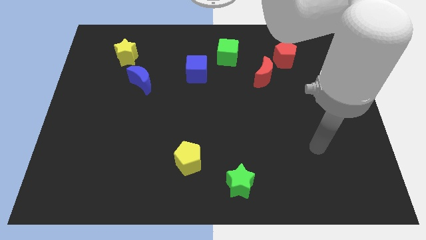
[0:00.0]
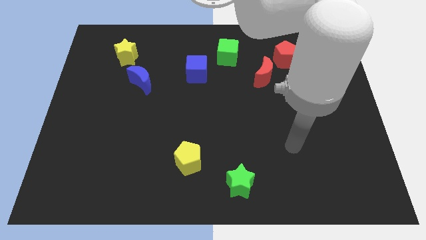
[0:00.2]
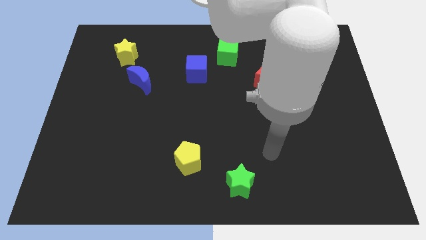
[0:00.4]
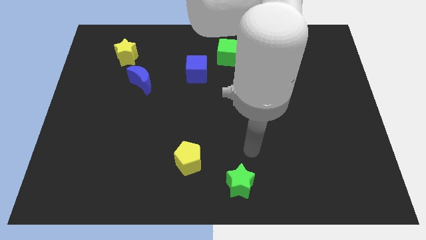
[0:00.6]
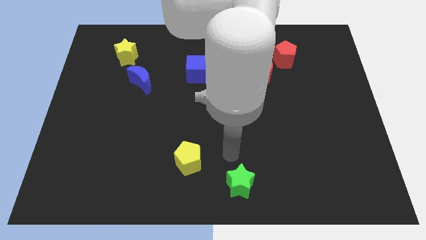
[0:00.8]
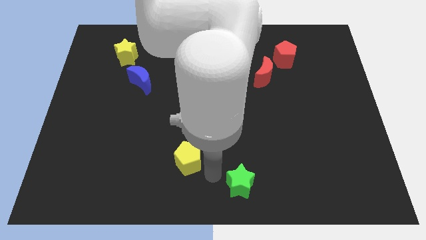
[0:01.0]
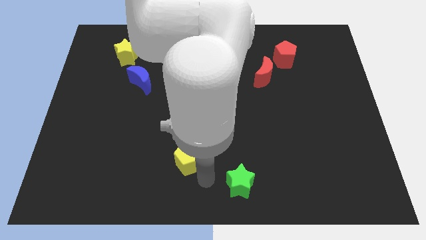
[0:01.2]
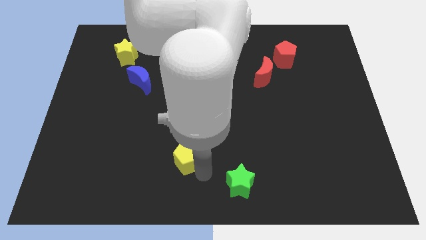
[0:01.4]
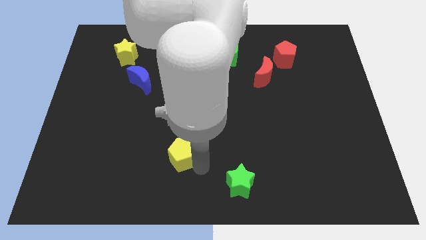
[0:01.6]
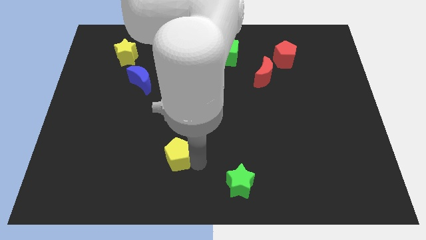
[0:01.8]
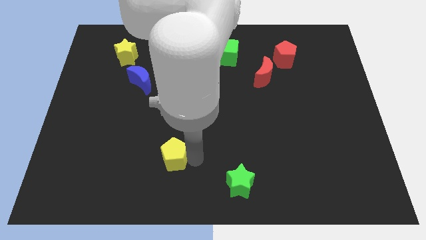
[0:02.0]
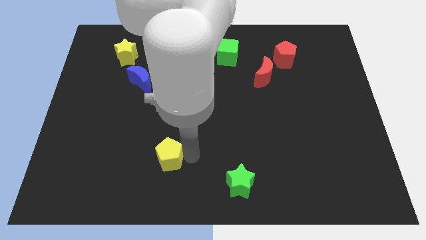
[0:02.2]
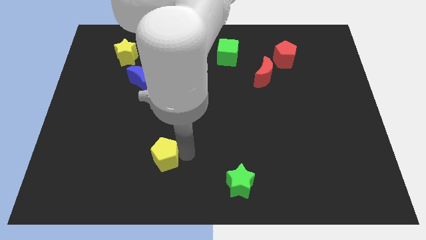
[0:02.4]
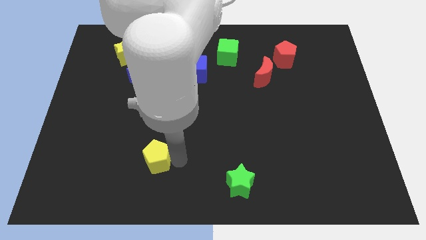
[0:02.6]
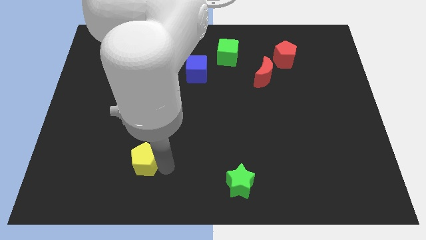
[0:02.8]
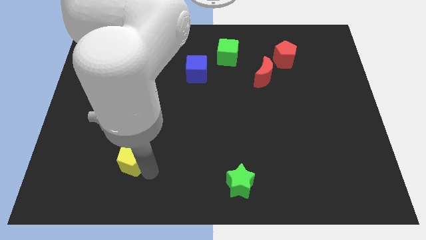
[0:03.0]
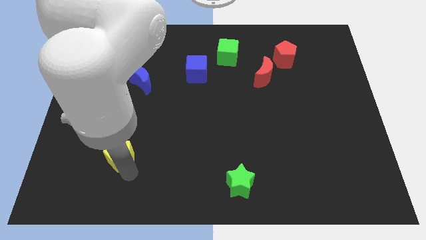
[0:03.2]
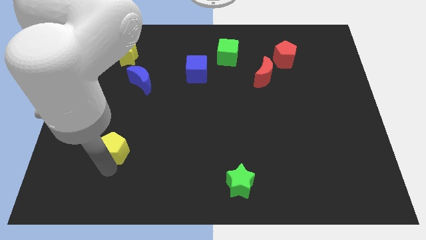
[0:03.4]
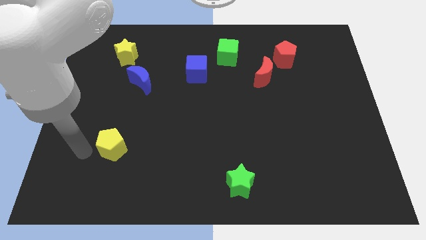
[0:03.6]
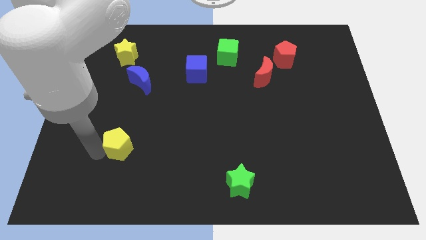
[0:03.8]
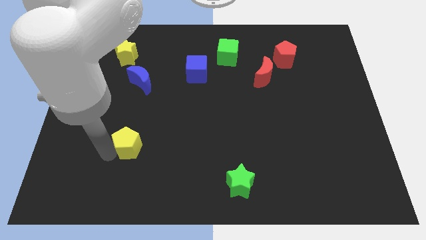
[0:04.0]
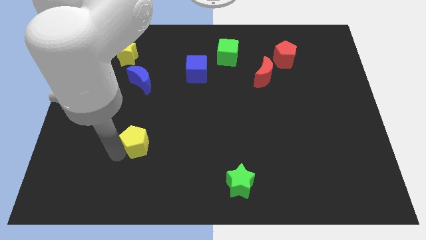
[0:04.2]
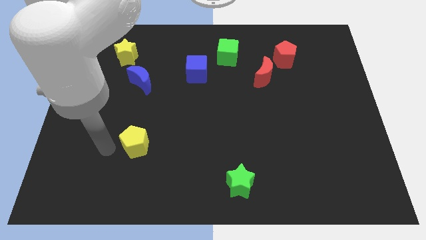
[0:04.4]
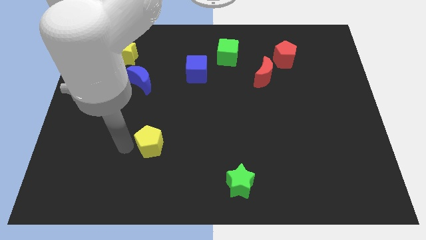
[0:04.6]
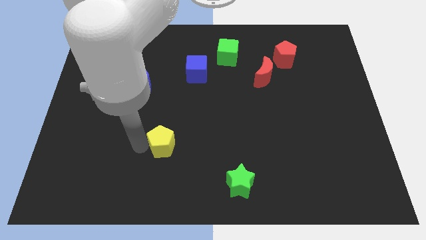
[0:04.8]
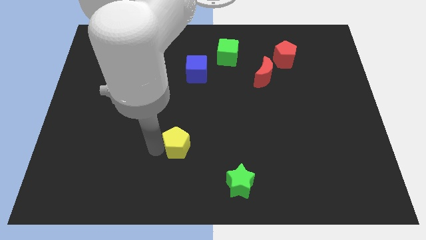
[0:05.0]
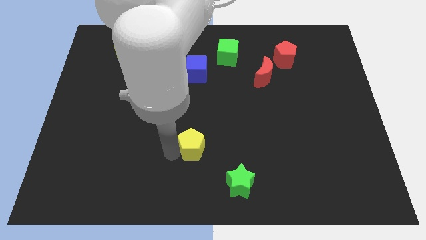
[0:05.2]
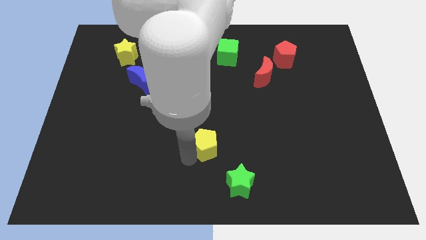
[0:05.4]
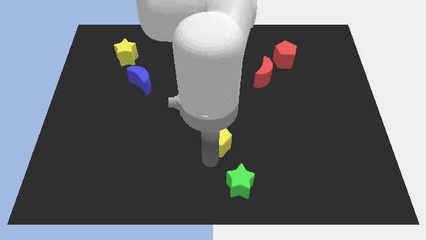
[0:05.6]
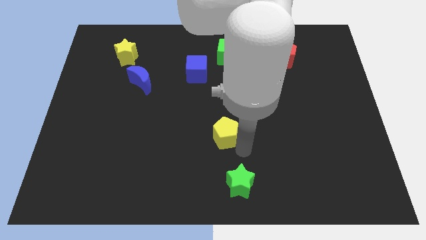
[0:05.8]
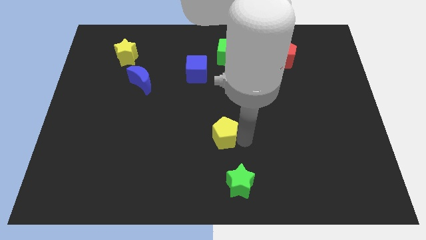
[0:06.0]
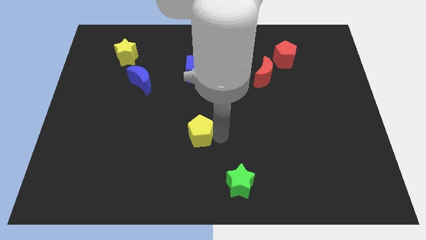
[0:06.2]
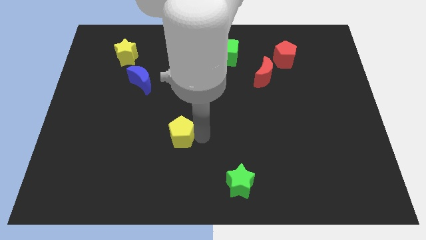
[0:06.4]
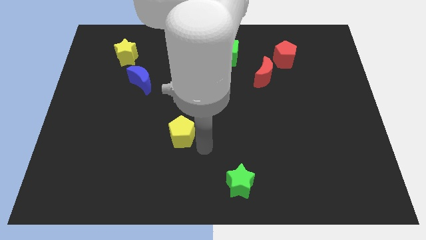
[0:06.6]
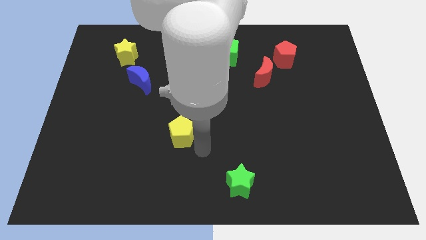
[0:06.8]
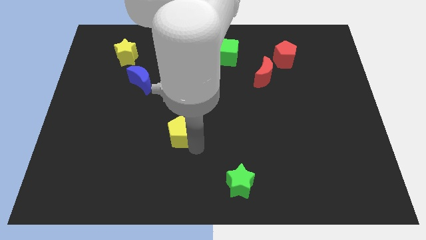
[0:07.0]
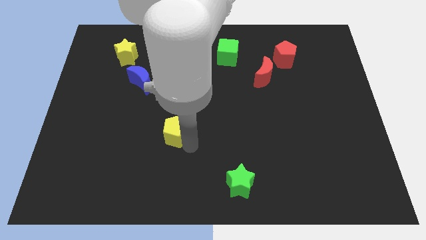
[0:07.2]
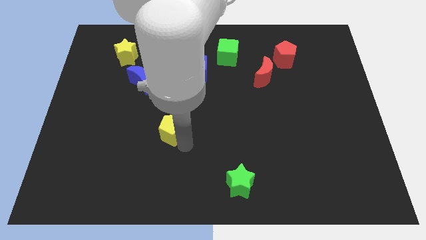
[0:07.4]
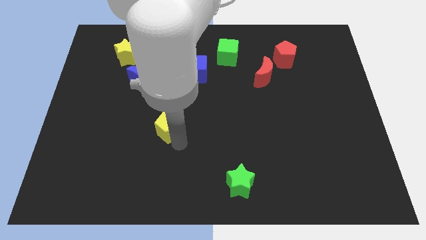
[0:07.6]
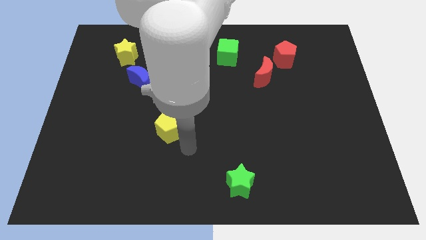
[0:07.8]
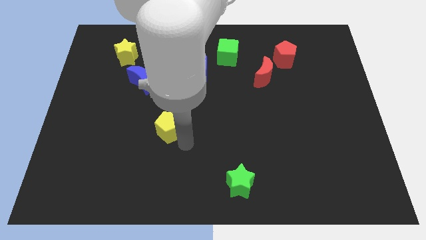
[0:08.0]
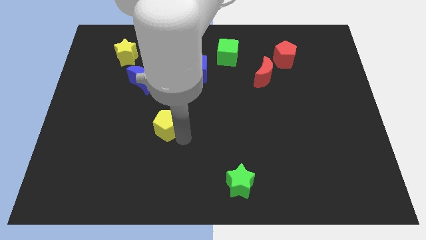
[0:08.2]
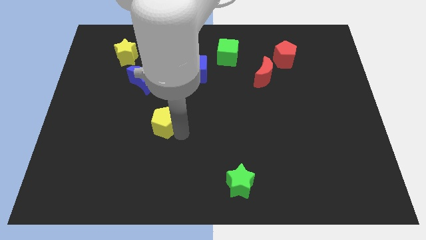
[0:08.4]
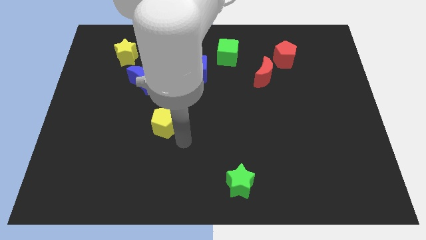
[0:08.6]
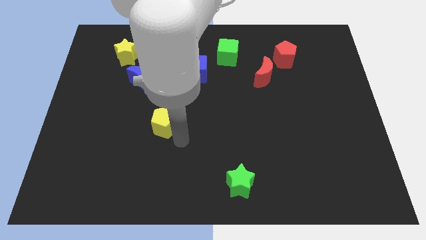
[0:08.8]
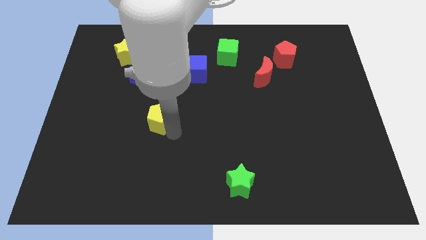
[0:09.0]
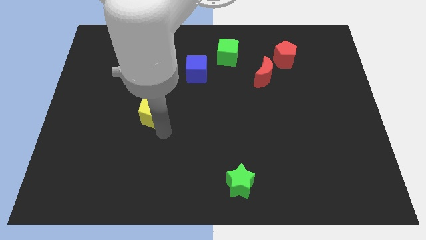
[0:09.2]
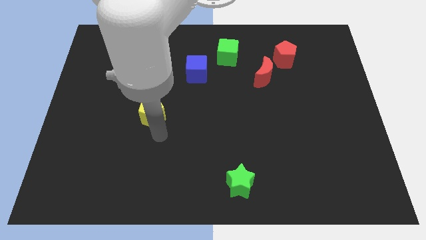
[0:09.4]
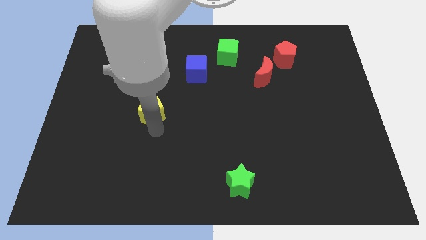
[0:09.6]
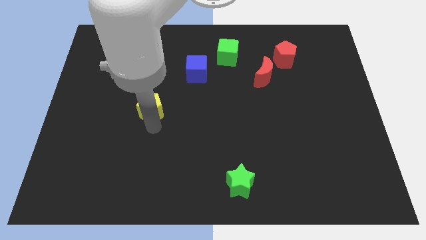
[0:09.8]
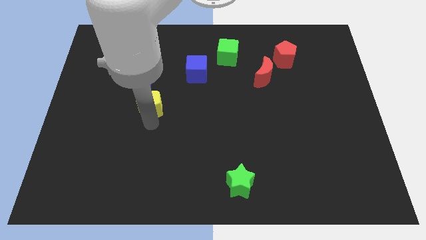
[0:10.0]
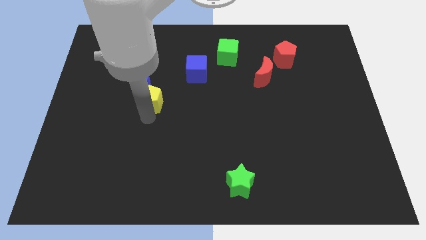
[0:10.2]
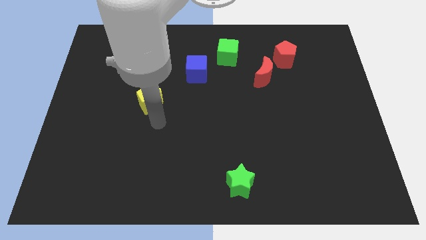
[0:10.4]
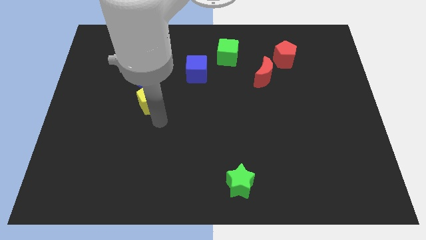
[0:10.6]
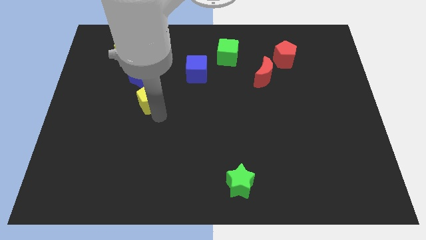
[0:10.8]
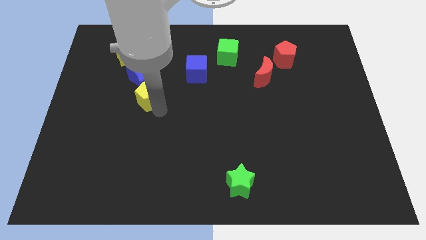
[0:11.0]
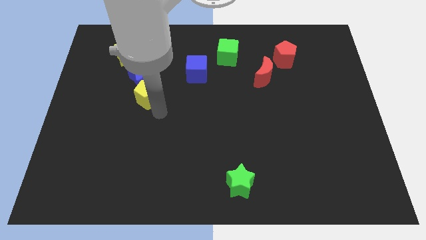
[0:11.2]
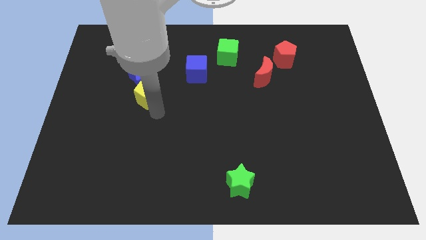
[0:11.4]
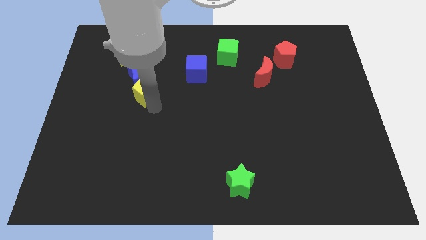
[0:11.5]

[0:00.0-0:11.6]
put the yellow pentagon close to the blue moon

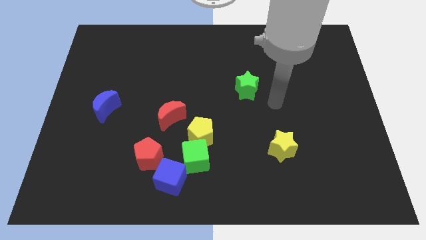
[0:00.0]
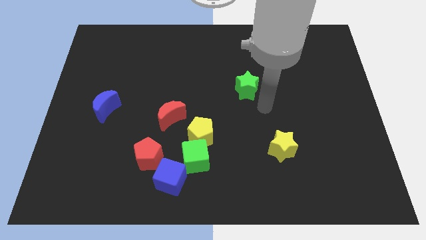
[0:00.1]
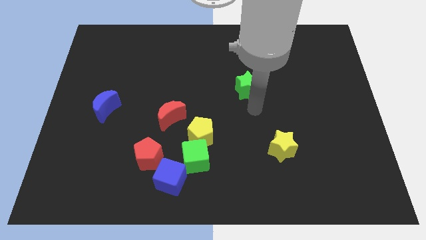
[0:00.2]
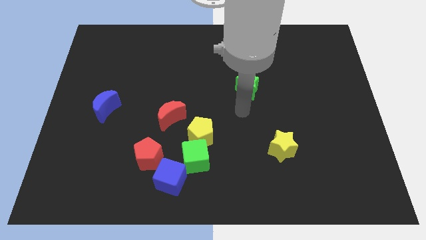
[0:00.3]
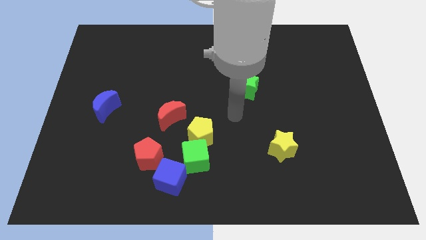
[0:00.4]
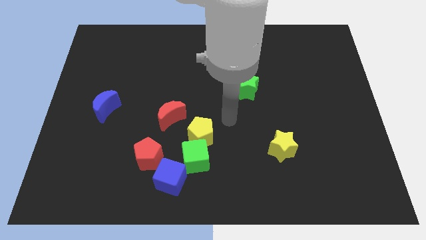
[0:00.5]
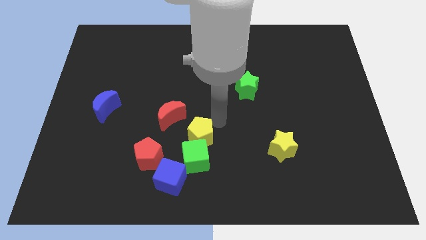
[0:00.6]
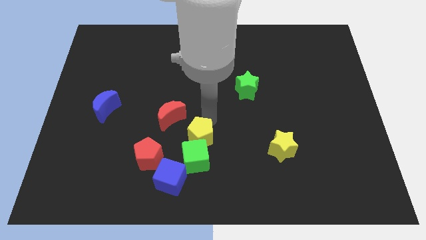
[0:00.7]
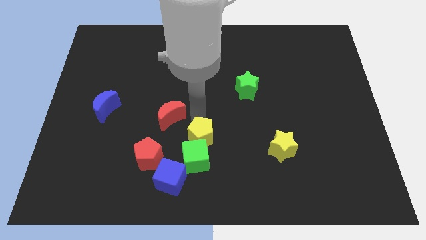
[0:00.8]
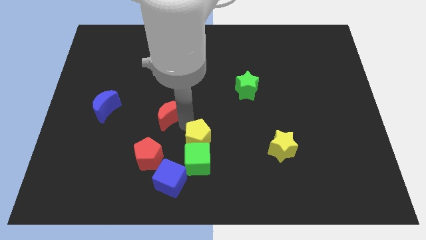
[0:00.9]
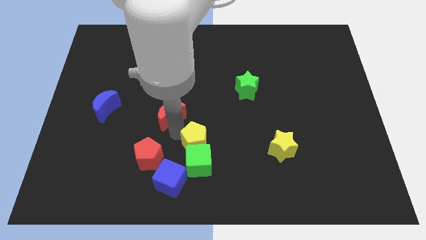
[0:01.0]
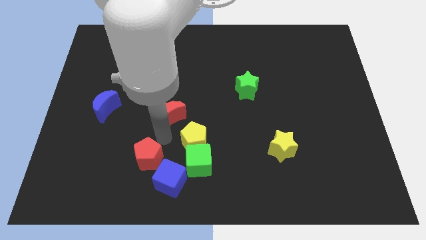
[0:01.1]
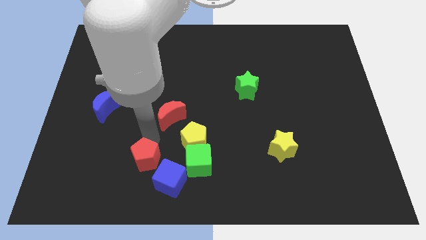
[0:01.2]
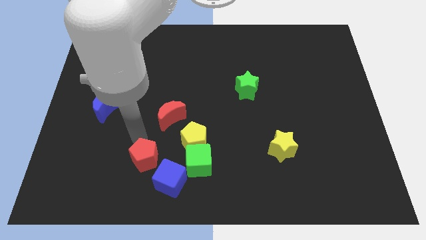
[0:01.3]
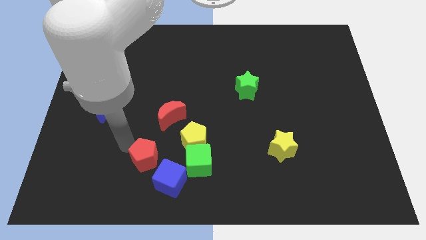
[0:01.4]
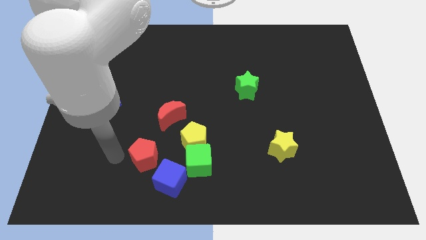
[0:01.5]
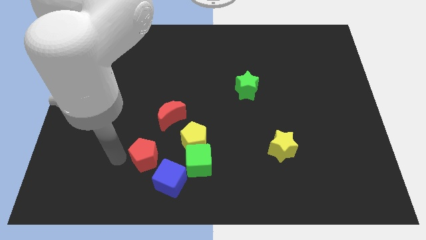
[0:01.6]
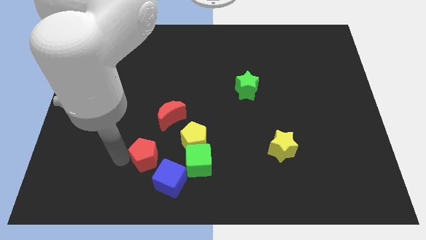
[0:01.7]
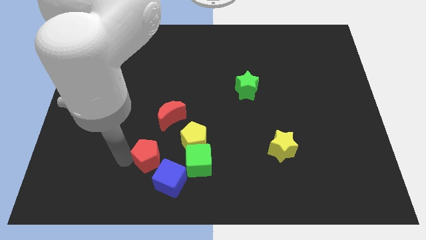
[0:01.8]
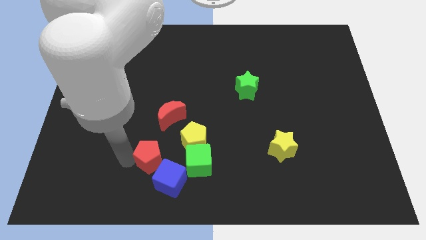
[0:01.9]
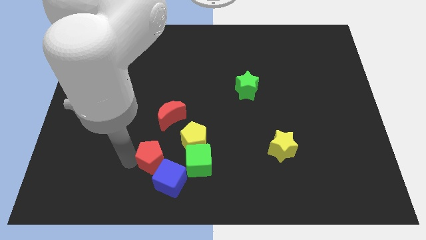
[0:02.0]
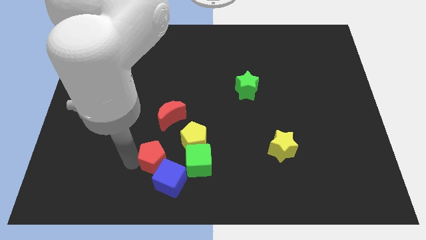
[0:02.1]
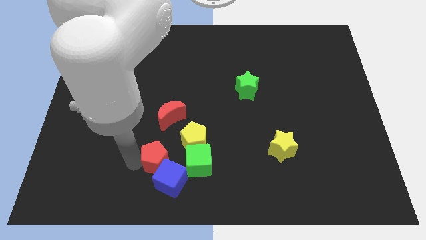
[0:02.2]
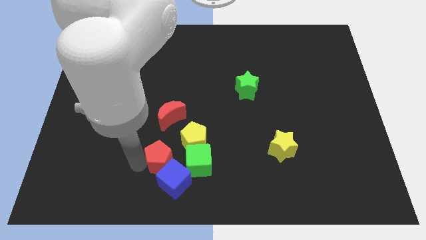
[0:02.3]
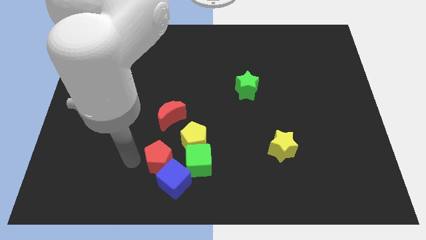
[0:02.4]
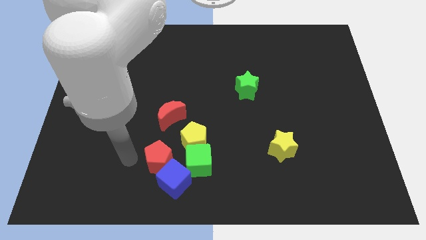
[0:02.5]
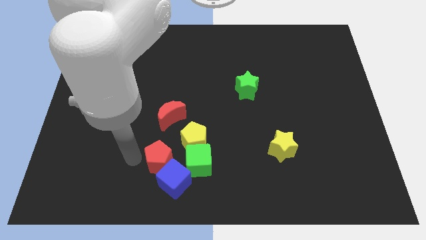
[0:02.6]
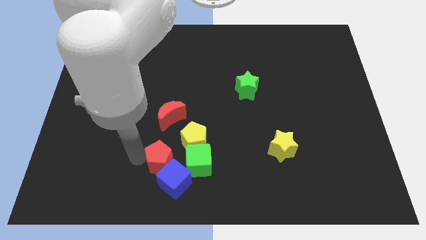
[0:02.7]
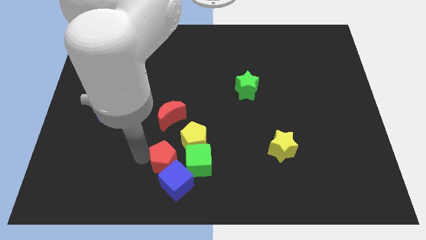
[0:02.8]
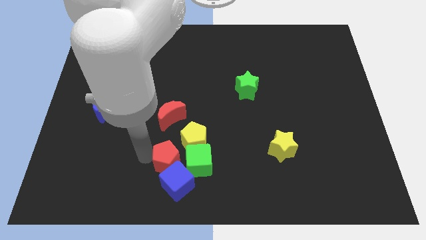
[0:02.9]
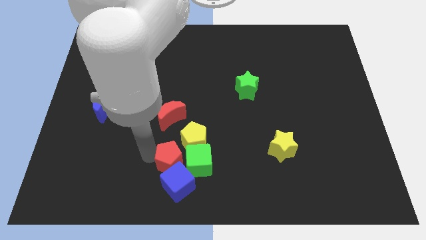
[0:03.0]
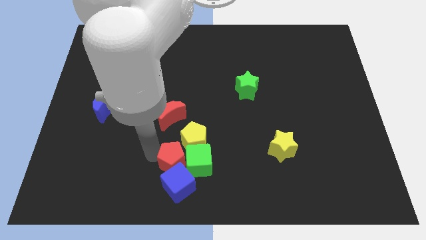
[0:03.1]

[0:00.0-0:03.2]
push the red pentagon towards the green cube
